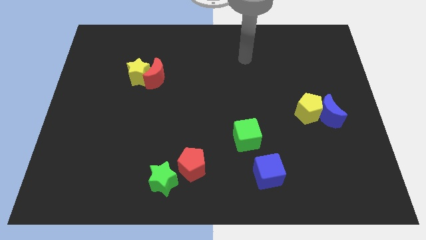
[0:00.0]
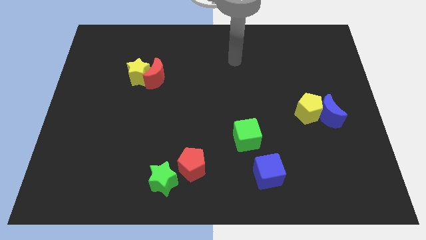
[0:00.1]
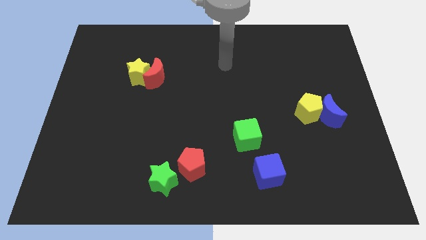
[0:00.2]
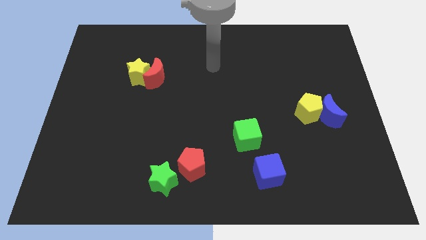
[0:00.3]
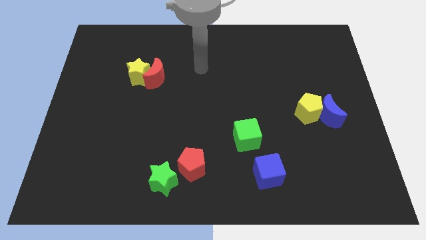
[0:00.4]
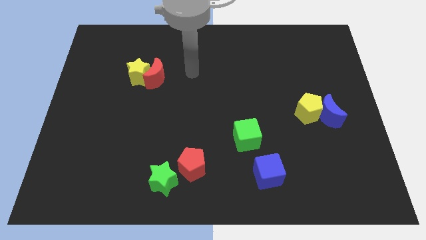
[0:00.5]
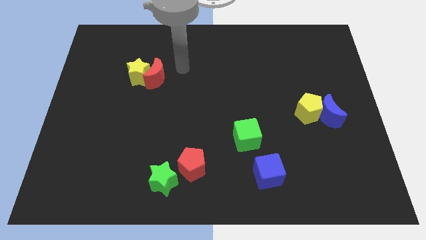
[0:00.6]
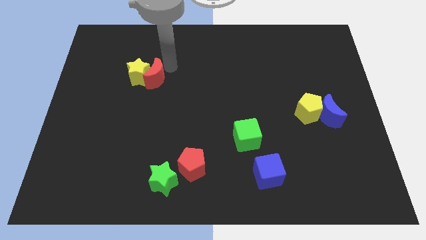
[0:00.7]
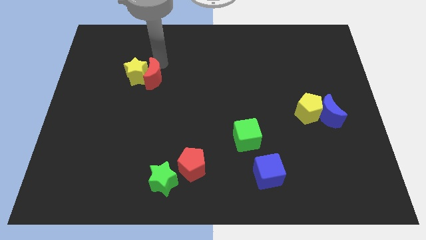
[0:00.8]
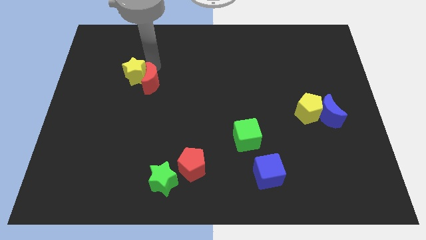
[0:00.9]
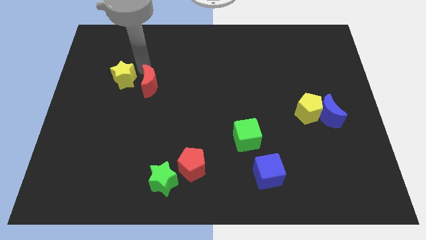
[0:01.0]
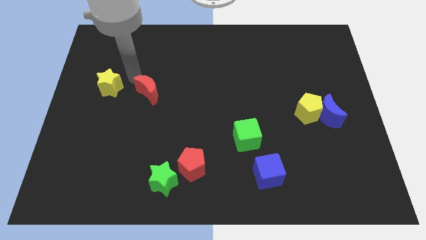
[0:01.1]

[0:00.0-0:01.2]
pull the red moon apart from the yellow star

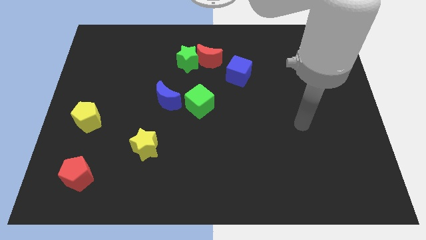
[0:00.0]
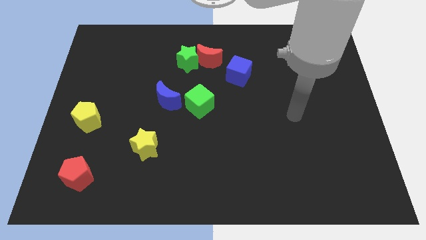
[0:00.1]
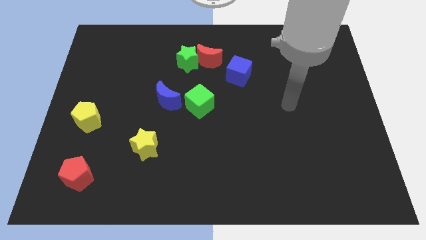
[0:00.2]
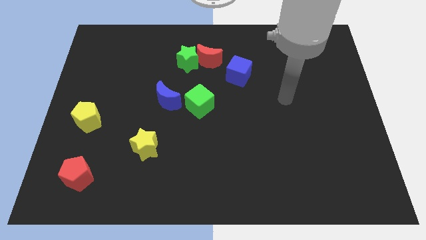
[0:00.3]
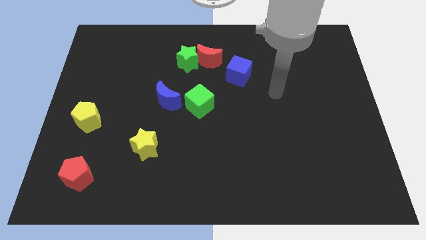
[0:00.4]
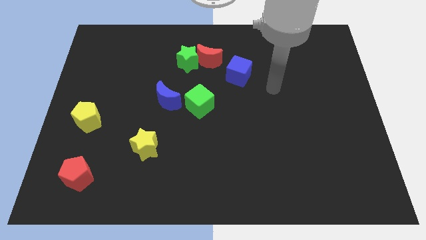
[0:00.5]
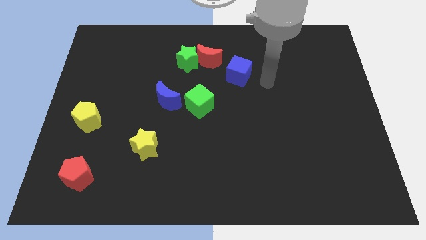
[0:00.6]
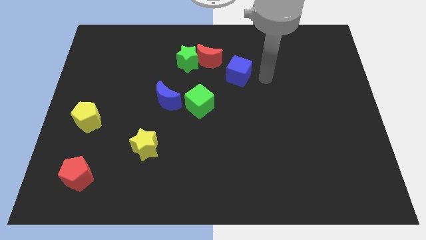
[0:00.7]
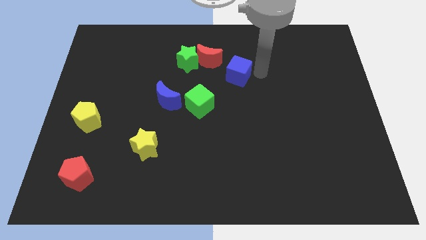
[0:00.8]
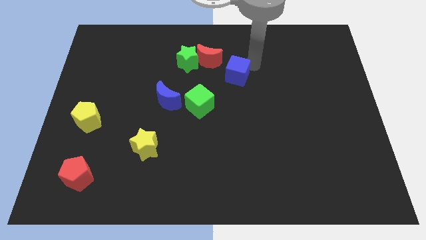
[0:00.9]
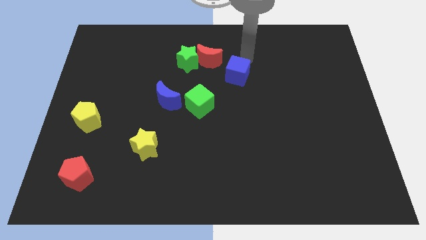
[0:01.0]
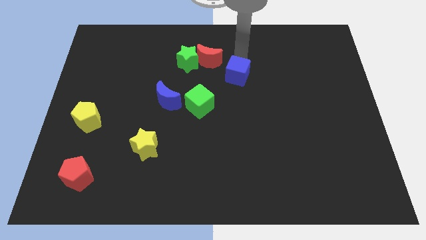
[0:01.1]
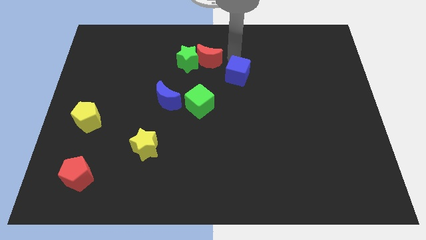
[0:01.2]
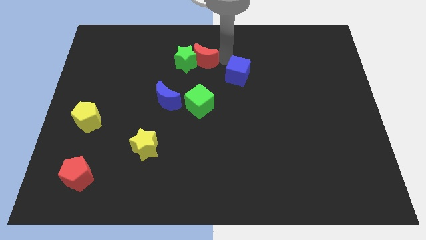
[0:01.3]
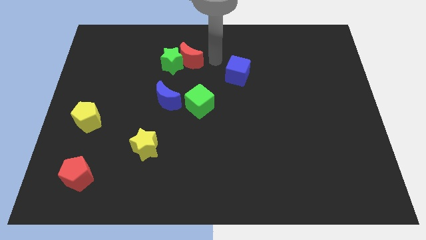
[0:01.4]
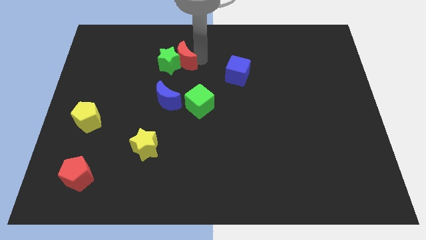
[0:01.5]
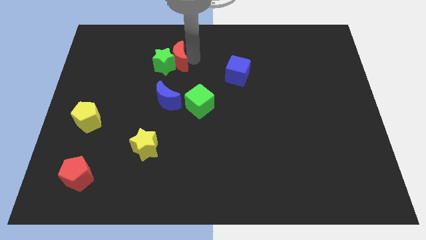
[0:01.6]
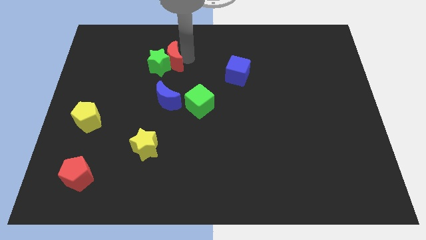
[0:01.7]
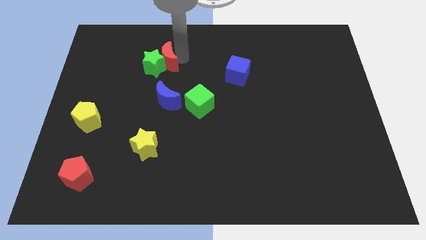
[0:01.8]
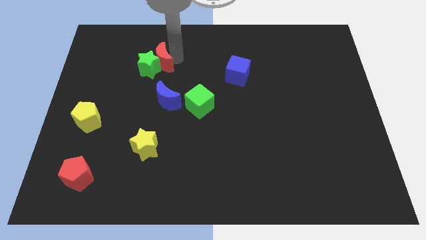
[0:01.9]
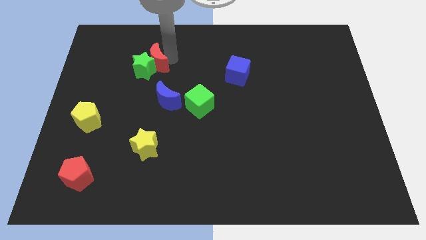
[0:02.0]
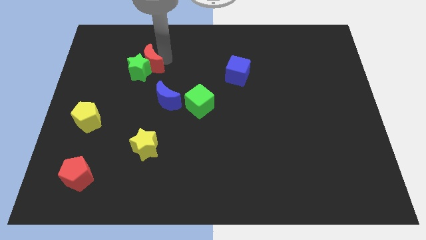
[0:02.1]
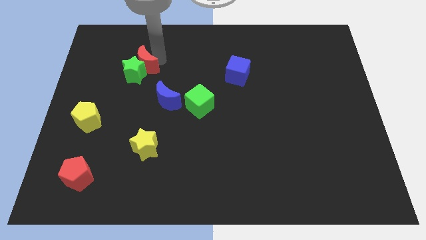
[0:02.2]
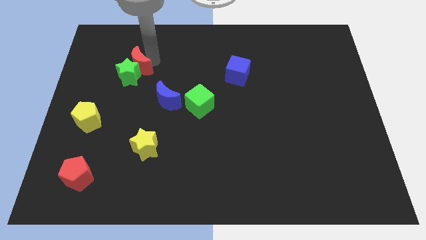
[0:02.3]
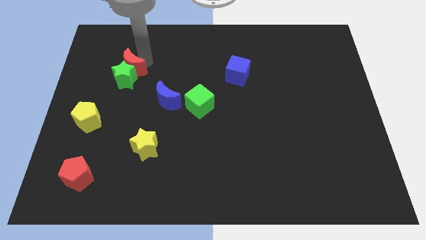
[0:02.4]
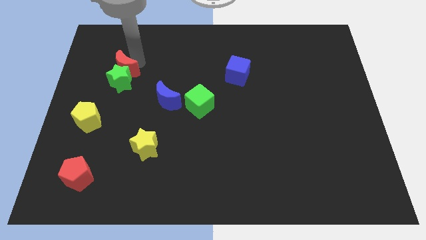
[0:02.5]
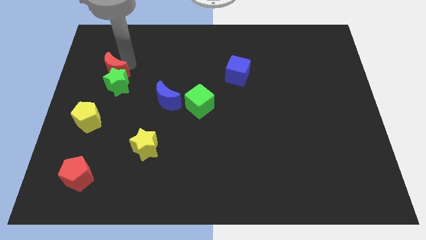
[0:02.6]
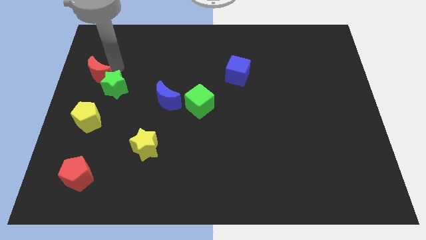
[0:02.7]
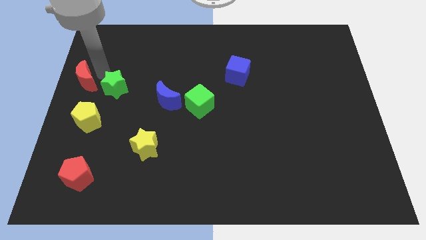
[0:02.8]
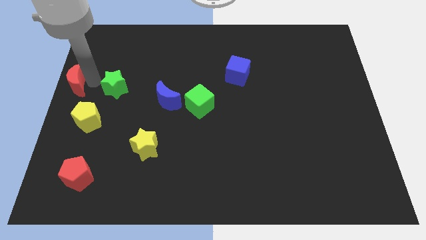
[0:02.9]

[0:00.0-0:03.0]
separate the green star from the red moon

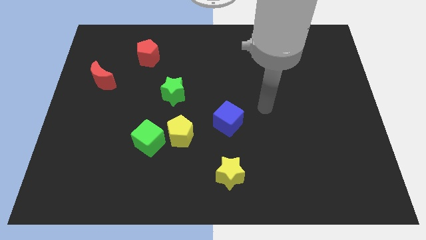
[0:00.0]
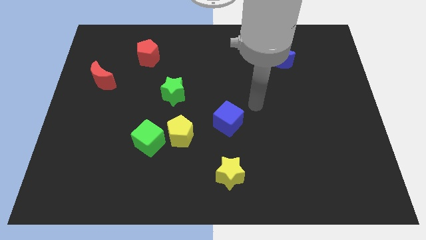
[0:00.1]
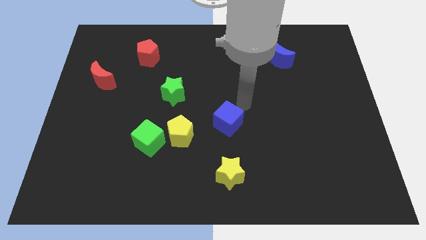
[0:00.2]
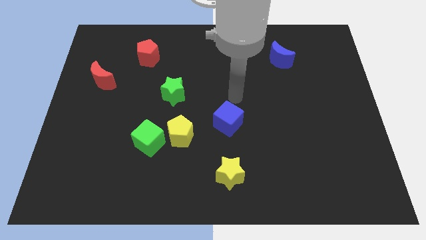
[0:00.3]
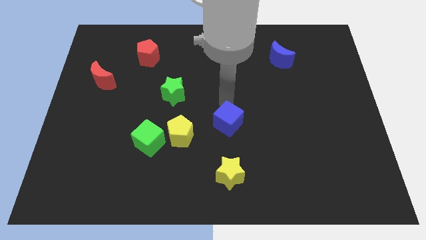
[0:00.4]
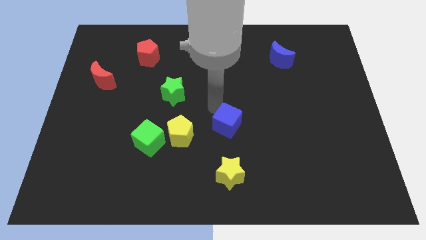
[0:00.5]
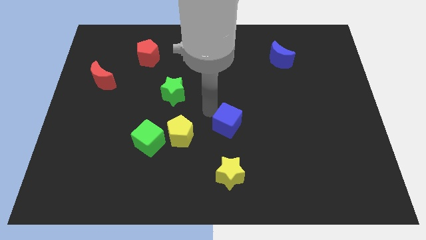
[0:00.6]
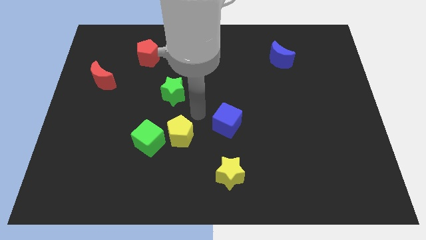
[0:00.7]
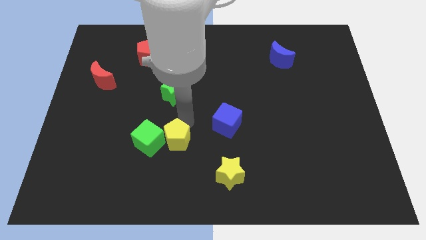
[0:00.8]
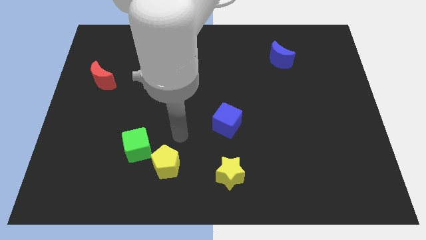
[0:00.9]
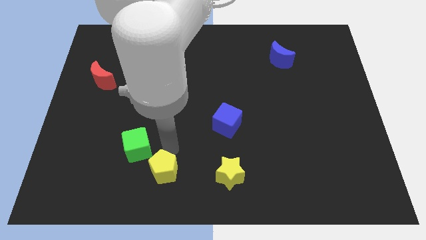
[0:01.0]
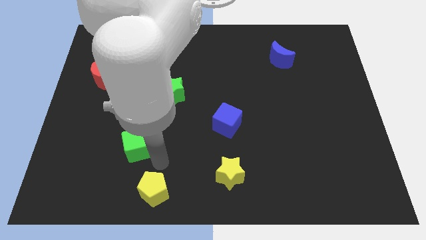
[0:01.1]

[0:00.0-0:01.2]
pull the green cube apart from the yellow pentagon

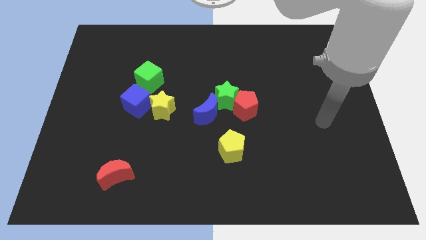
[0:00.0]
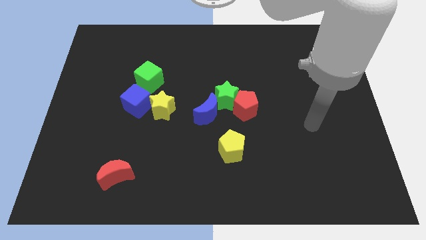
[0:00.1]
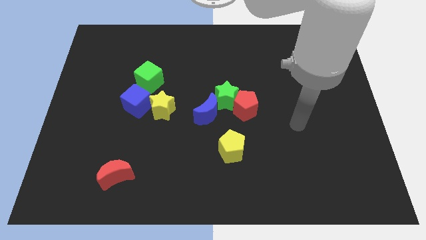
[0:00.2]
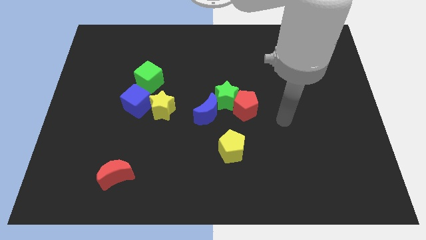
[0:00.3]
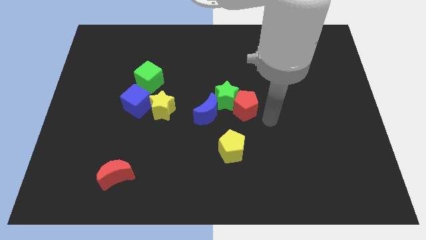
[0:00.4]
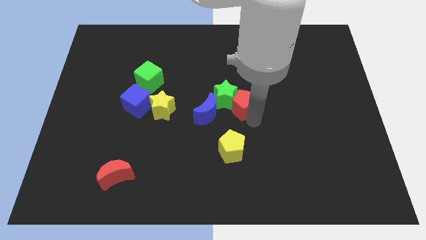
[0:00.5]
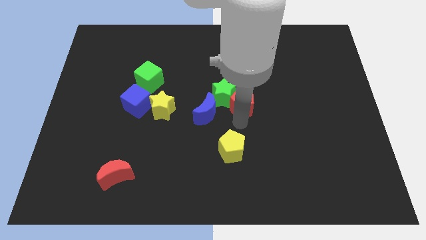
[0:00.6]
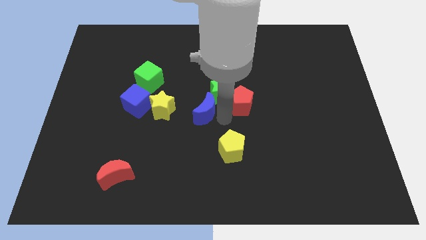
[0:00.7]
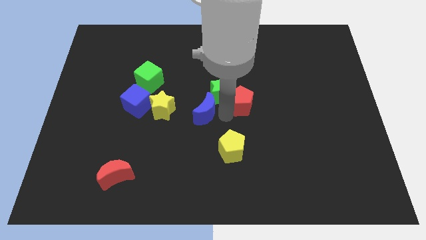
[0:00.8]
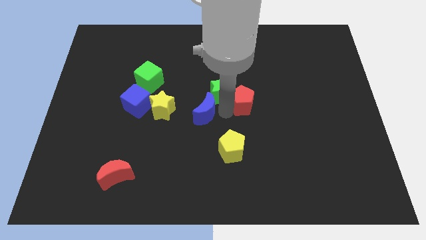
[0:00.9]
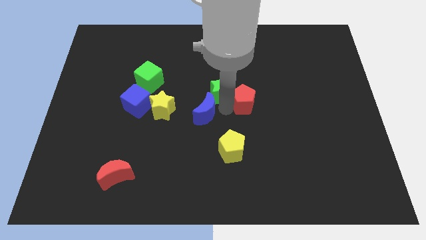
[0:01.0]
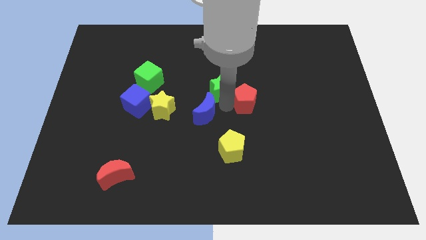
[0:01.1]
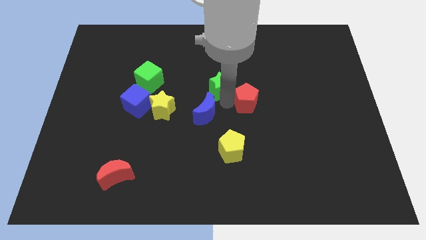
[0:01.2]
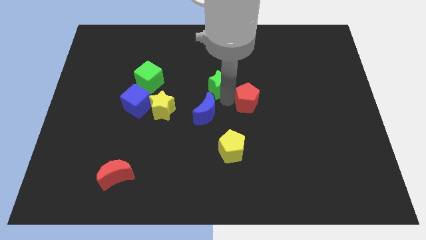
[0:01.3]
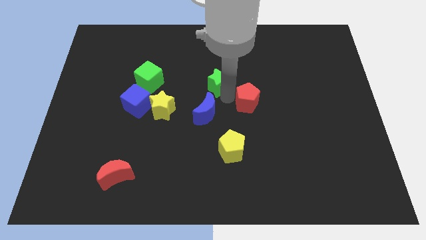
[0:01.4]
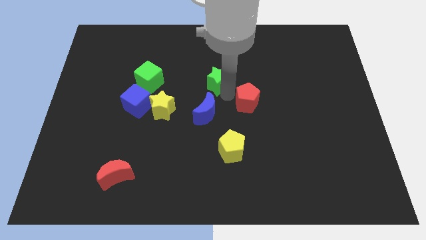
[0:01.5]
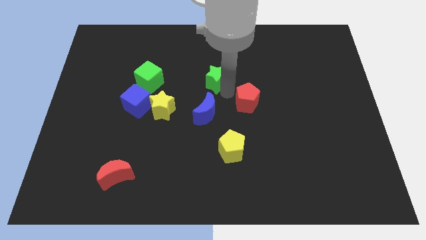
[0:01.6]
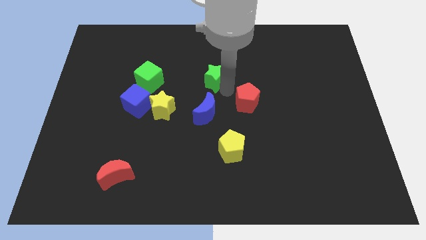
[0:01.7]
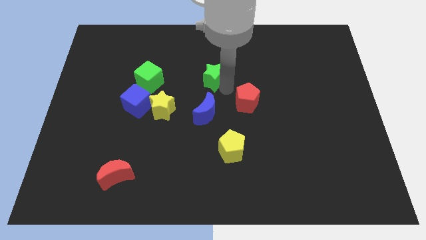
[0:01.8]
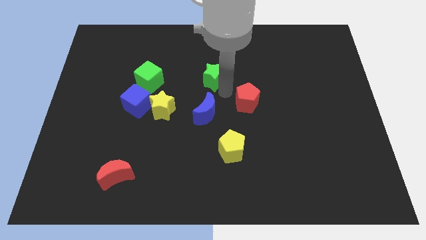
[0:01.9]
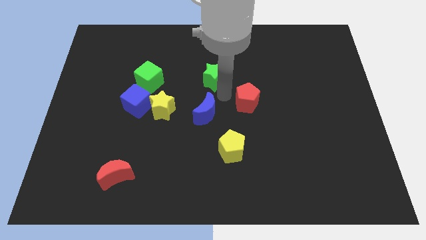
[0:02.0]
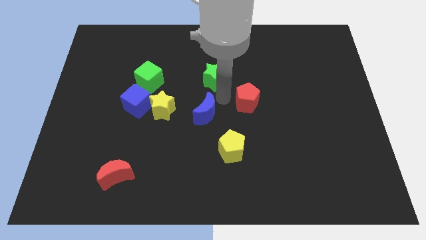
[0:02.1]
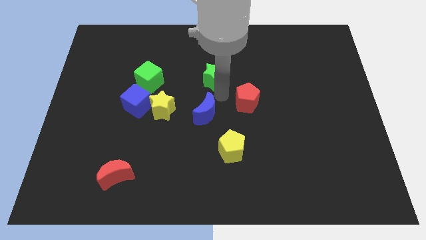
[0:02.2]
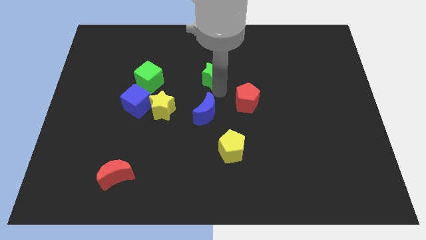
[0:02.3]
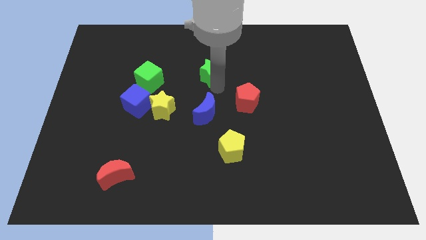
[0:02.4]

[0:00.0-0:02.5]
separate the green star from the red pentagon and blue moon

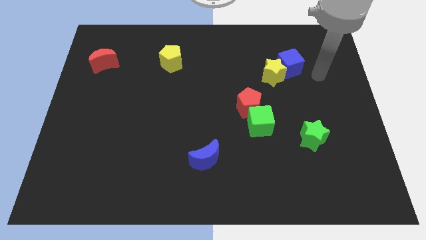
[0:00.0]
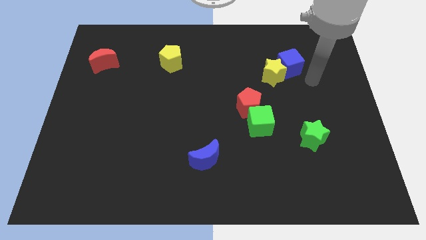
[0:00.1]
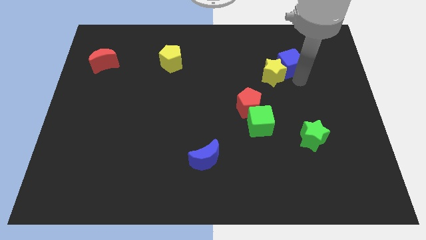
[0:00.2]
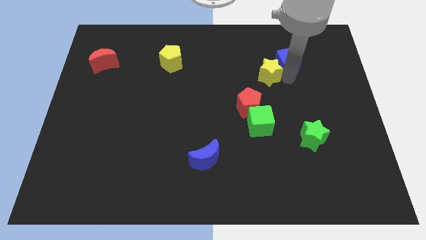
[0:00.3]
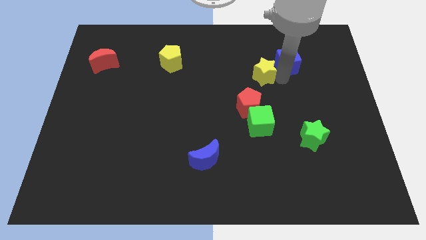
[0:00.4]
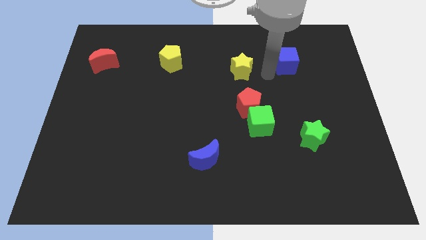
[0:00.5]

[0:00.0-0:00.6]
pull the blue cube apart from the yellow star

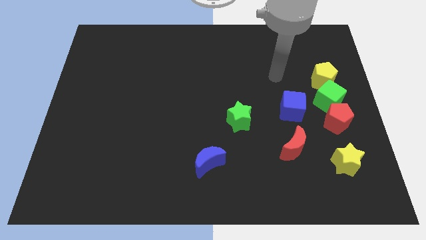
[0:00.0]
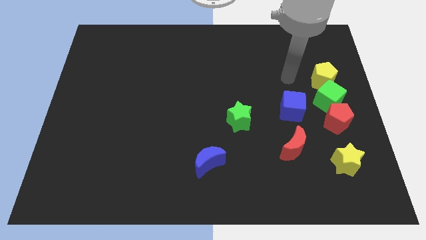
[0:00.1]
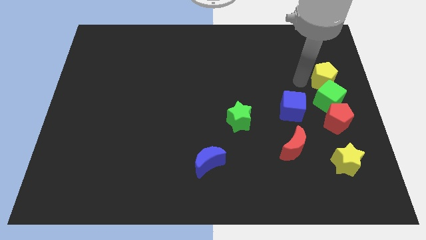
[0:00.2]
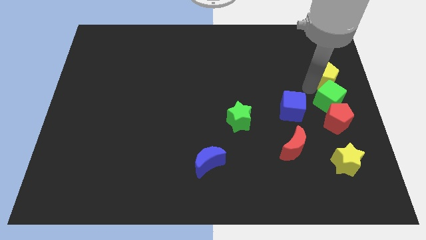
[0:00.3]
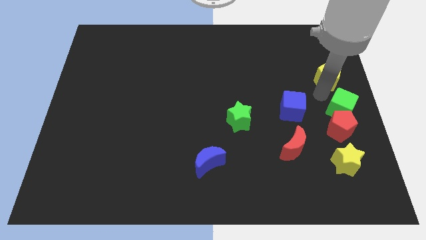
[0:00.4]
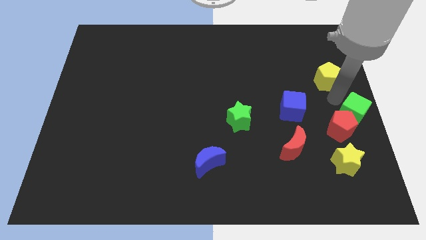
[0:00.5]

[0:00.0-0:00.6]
move the yellow pentagon away from the green cube

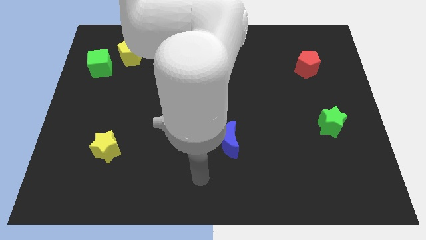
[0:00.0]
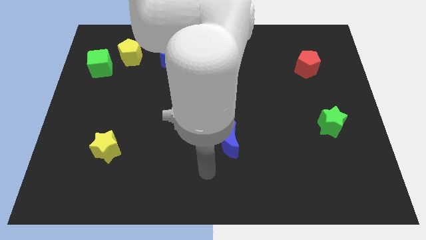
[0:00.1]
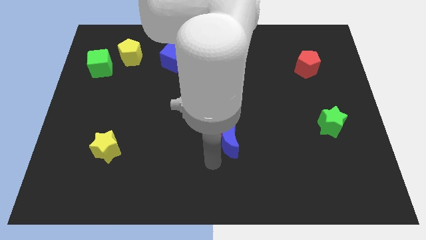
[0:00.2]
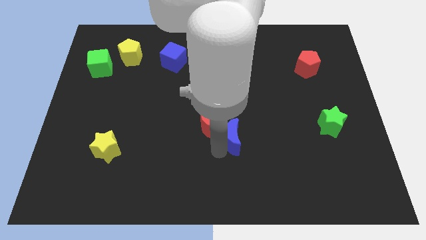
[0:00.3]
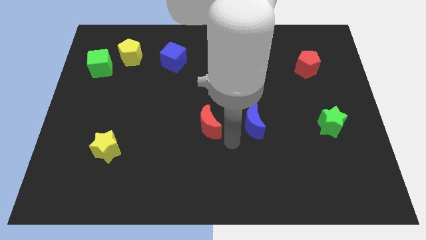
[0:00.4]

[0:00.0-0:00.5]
separate the red moon from the blue moon
